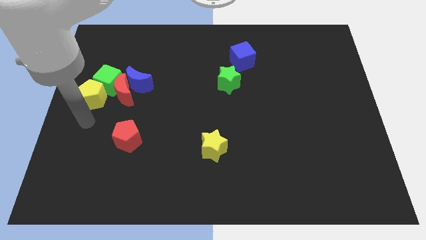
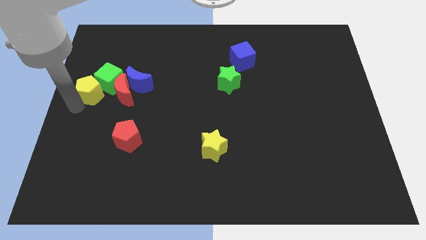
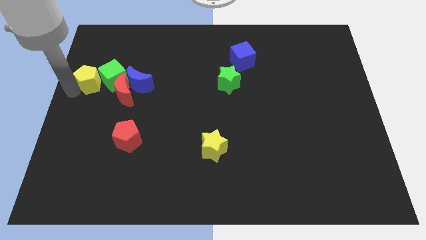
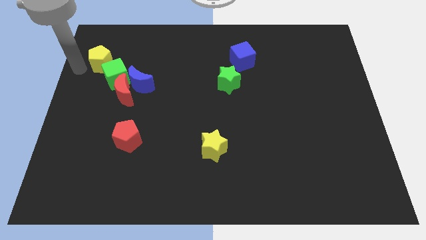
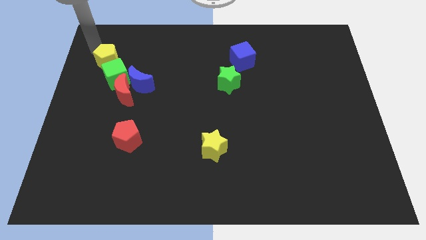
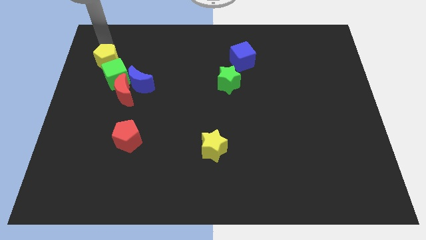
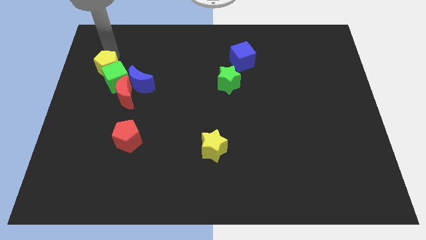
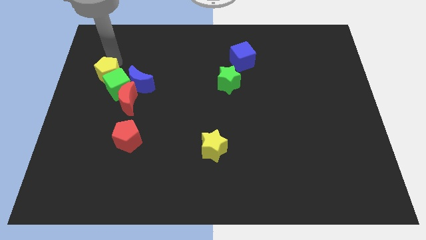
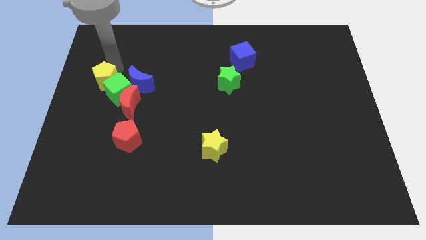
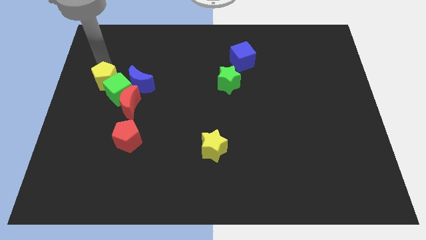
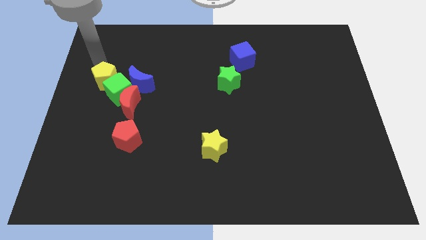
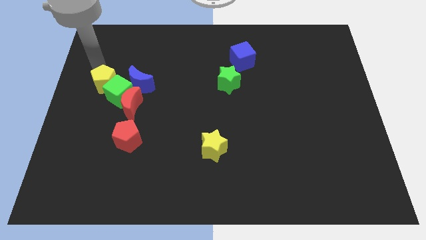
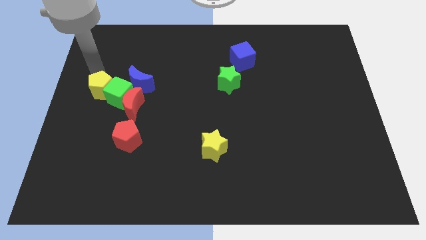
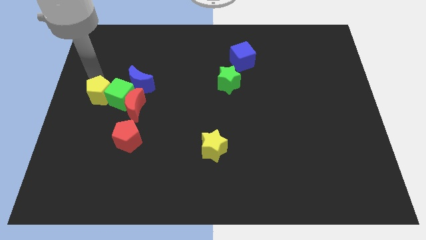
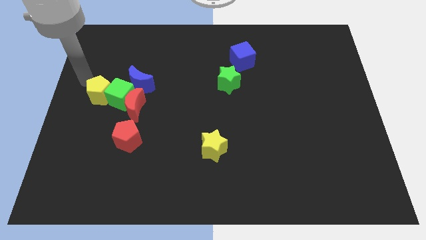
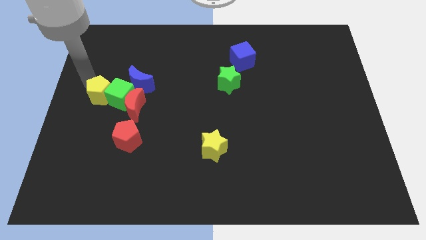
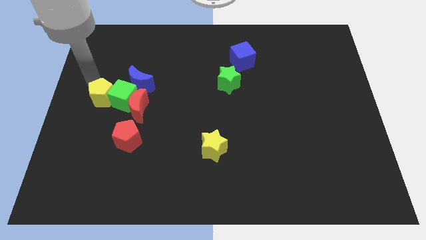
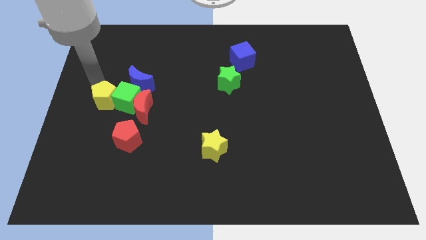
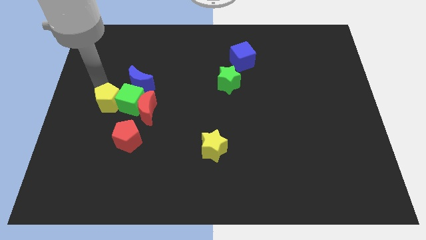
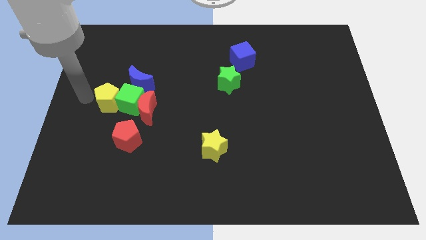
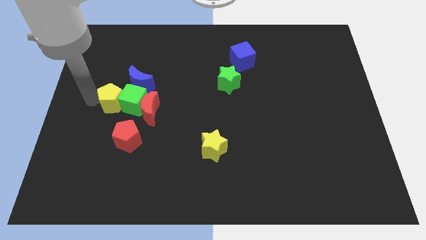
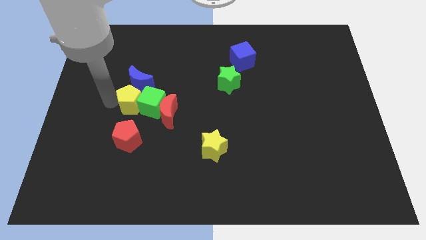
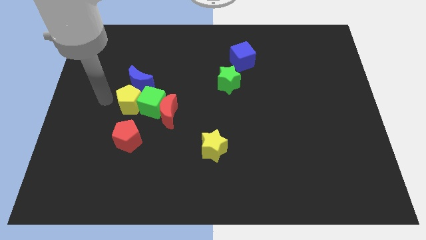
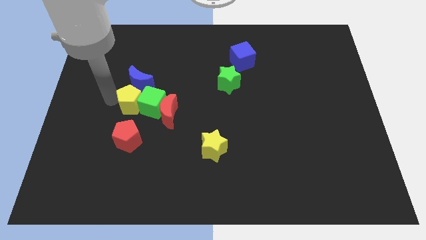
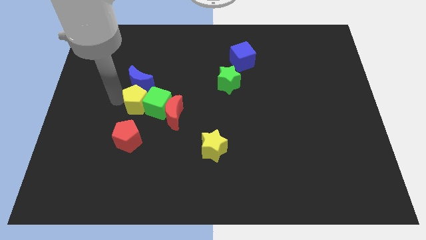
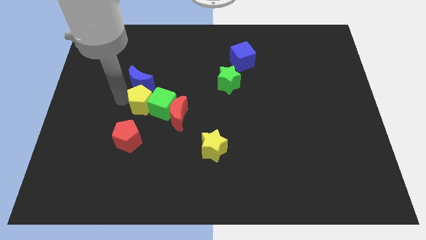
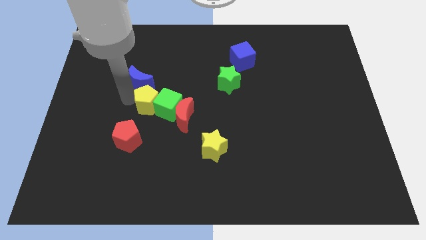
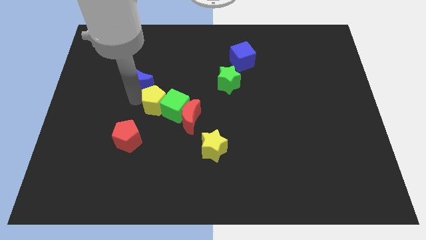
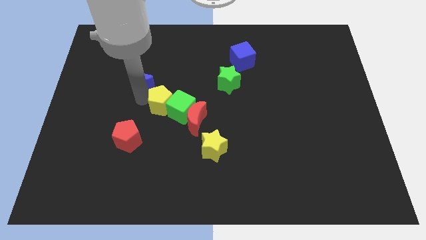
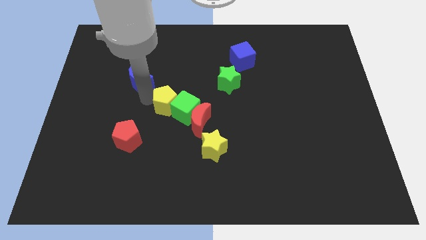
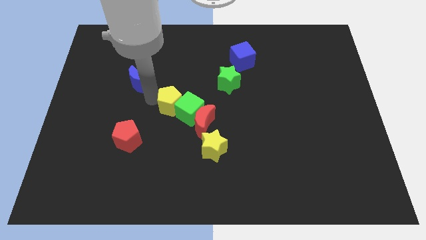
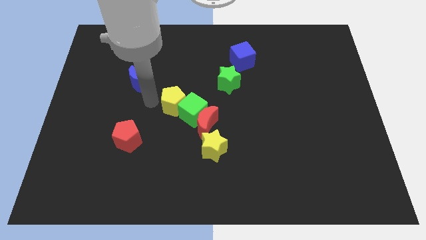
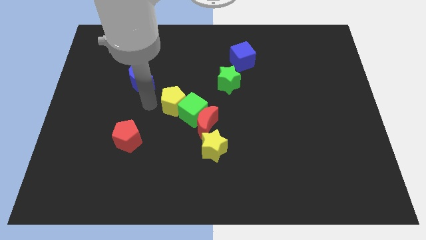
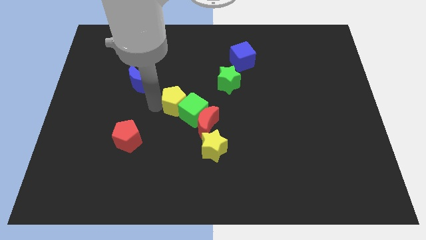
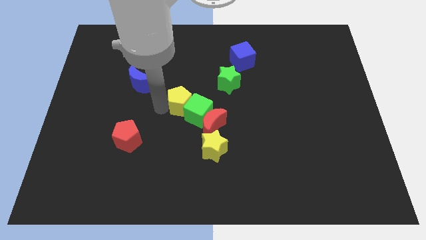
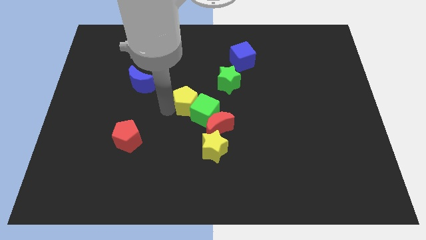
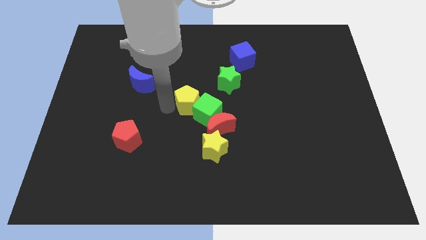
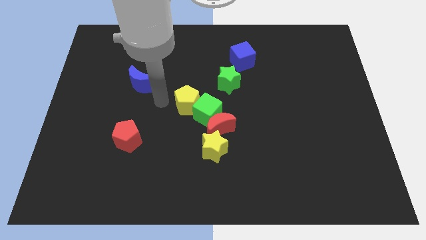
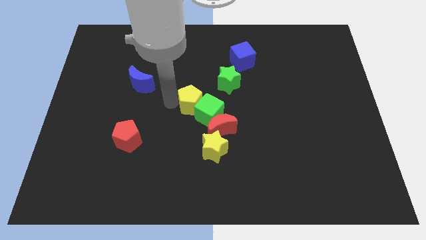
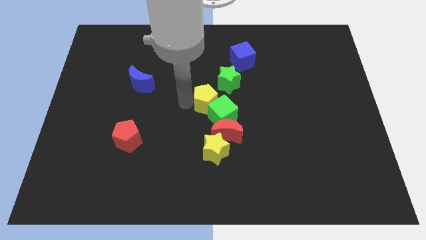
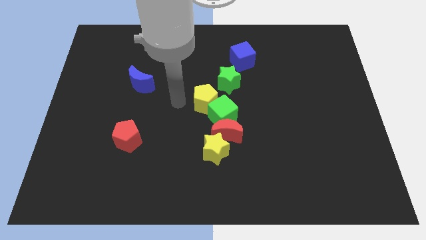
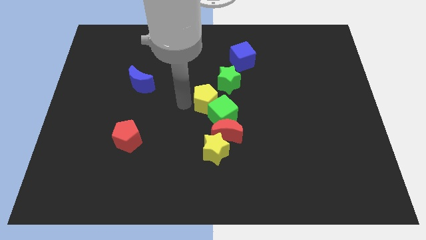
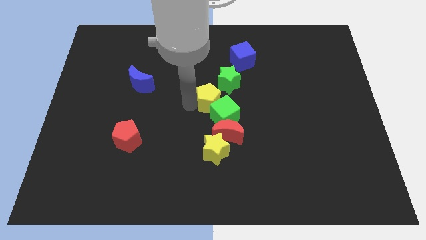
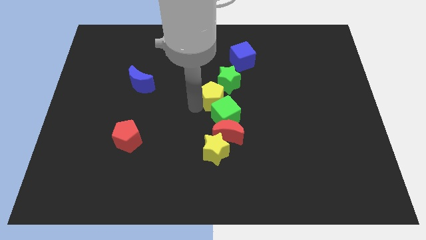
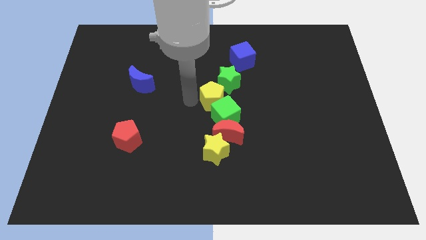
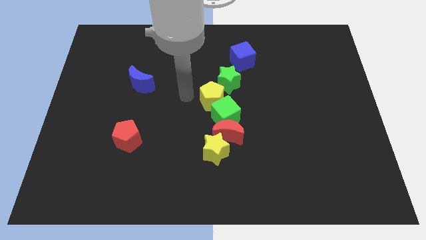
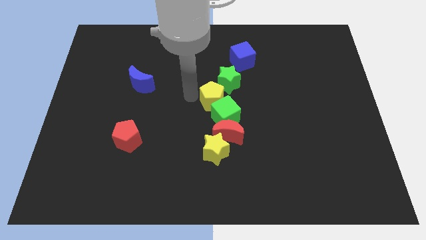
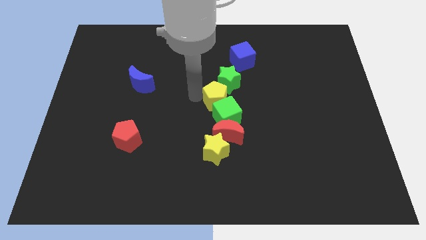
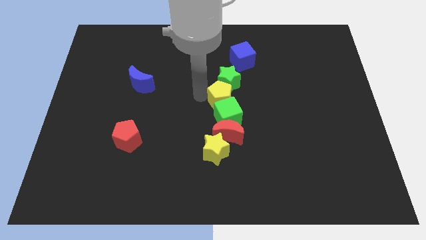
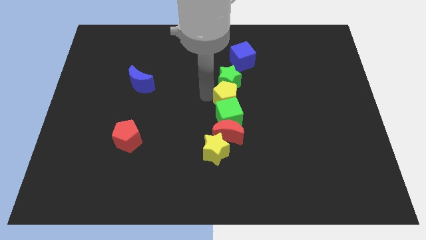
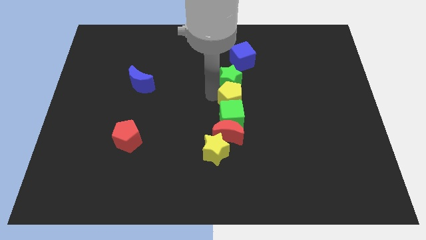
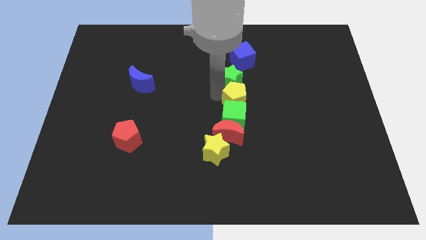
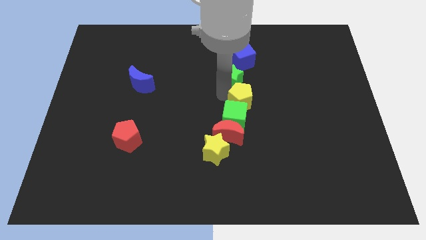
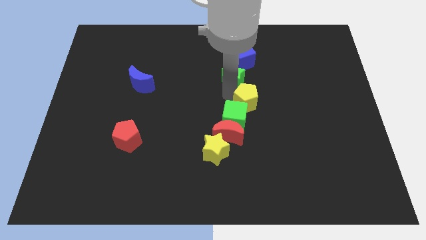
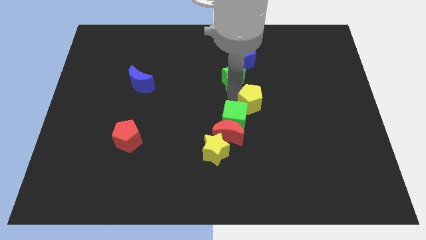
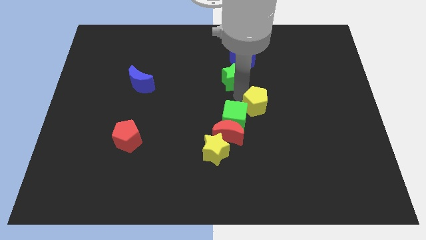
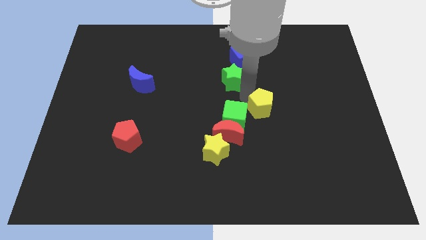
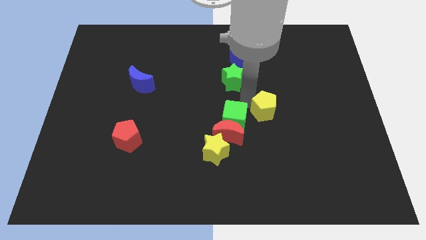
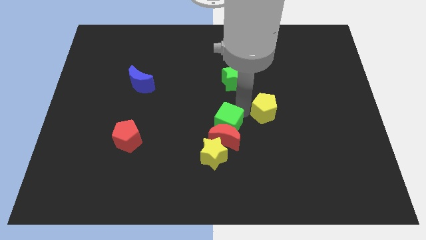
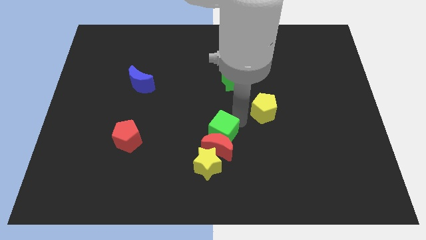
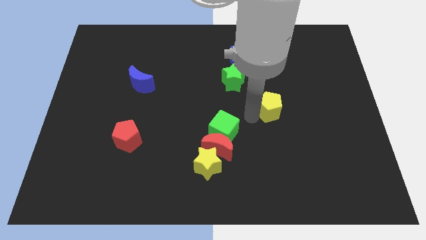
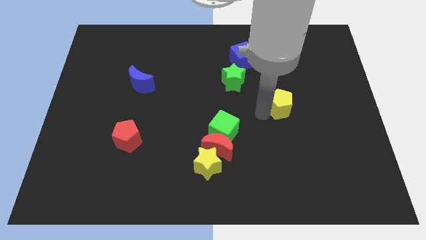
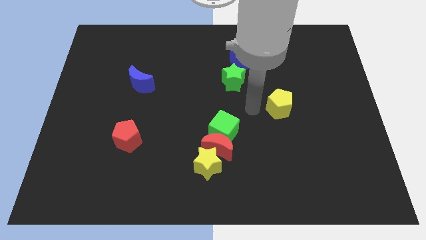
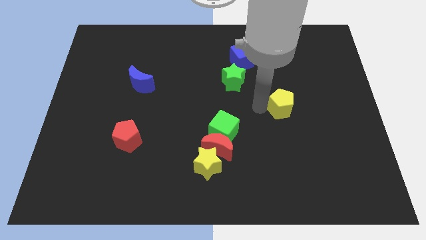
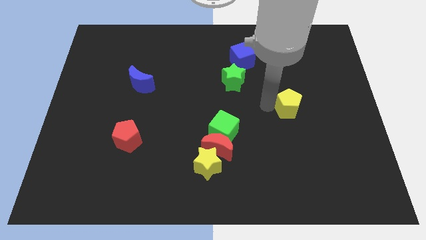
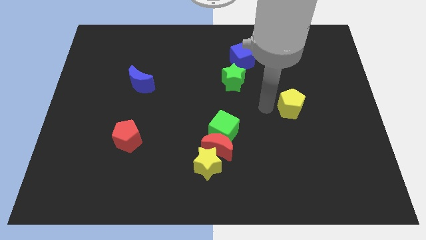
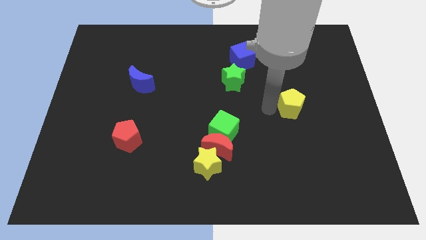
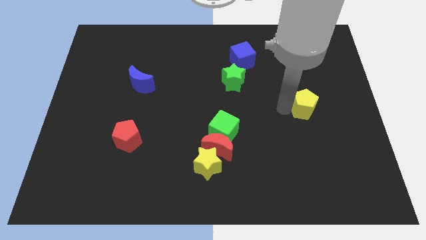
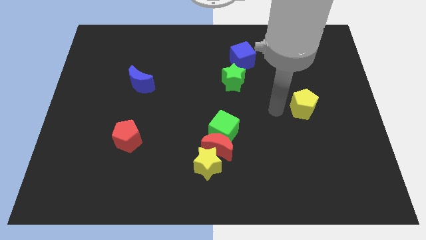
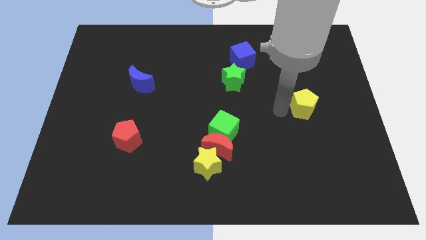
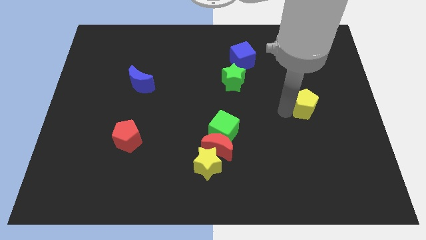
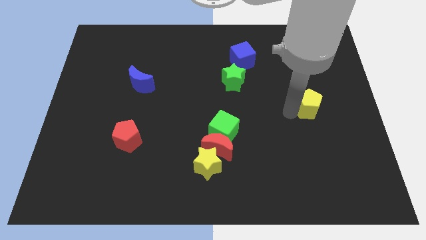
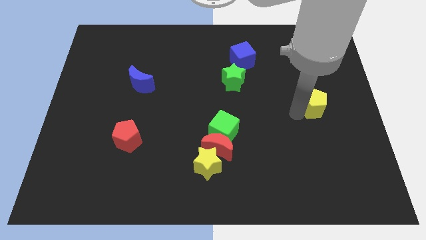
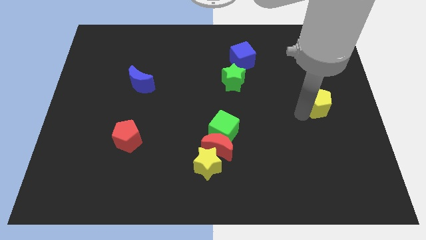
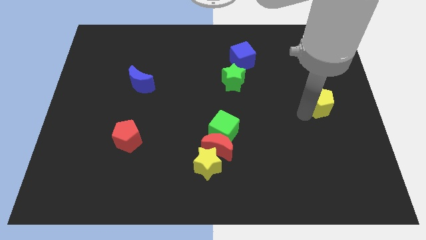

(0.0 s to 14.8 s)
put the yellow pentagon to the center right
